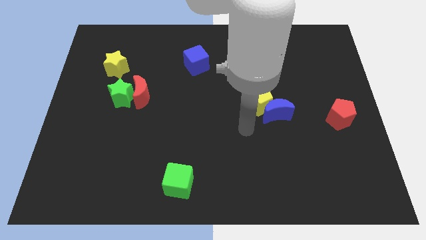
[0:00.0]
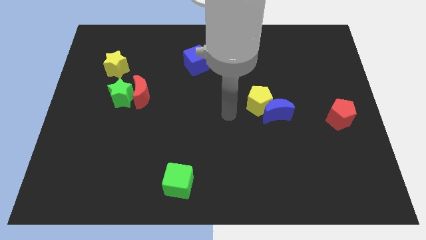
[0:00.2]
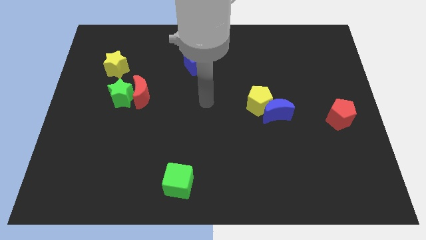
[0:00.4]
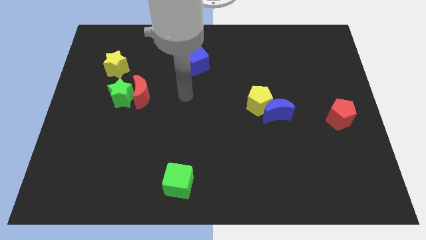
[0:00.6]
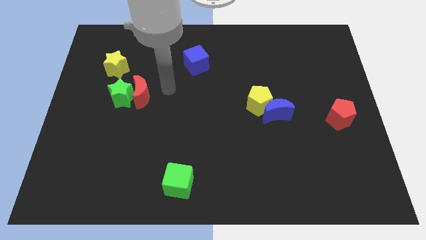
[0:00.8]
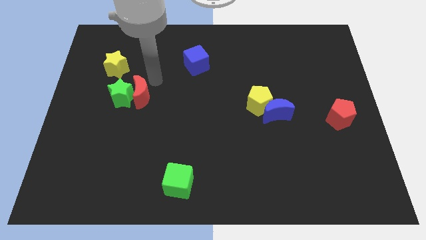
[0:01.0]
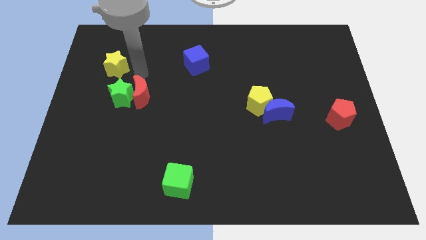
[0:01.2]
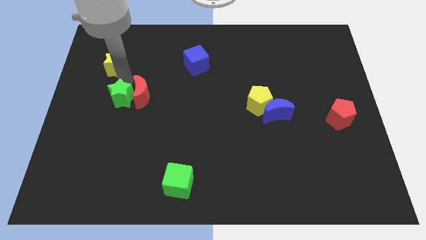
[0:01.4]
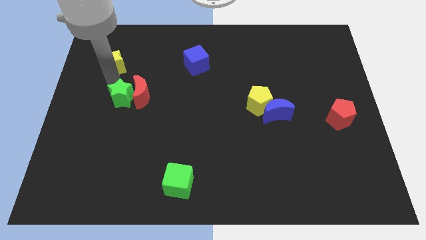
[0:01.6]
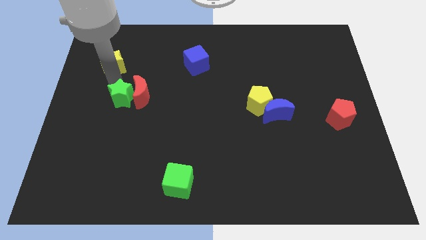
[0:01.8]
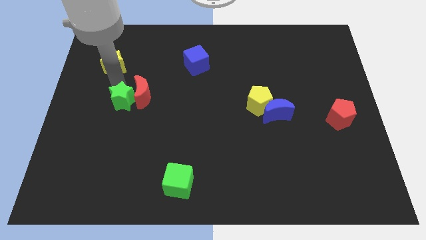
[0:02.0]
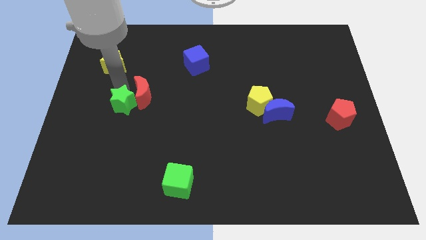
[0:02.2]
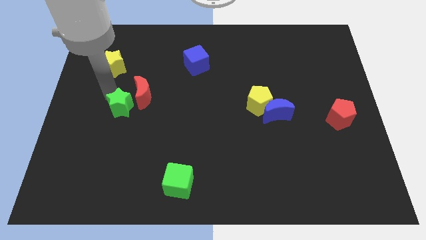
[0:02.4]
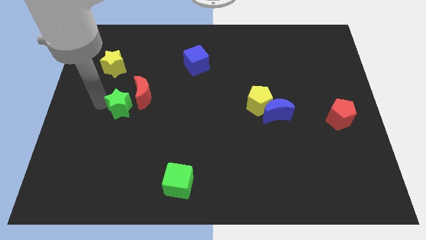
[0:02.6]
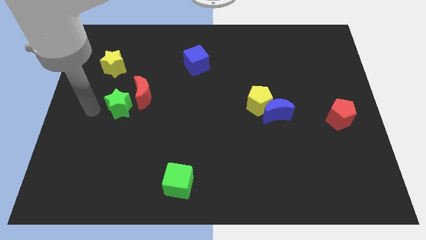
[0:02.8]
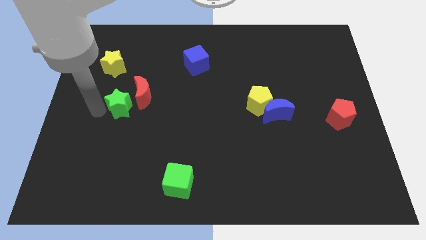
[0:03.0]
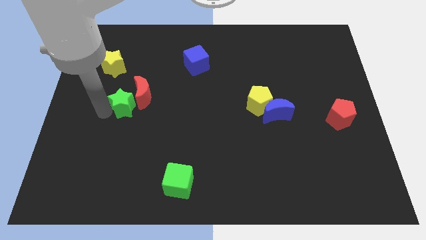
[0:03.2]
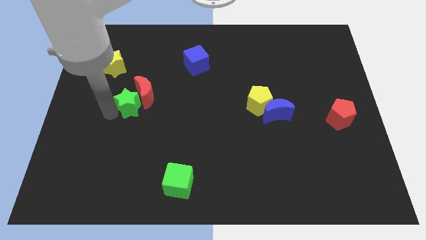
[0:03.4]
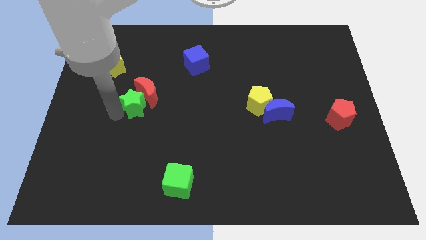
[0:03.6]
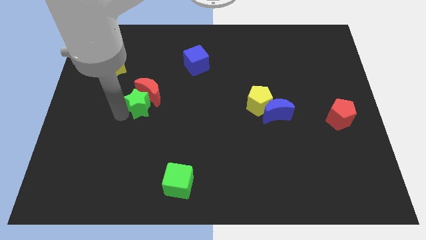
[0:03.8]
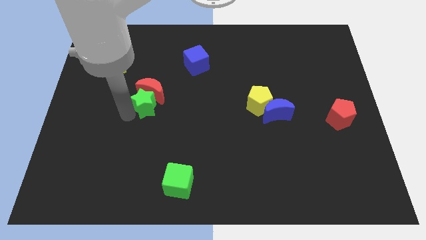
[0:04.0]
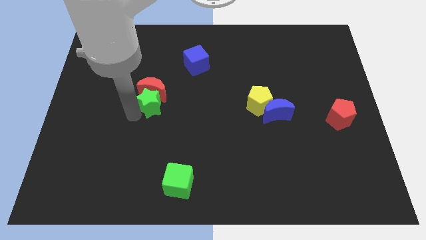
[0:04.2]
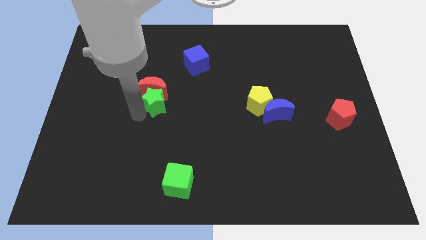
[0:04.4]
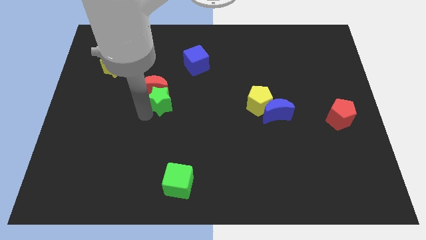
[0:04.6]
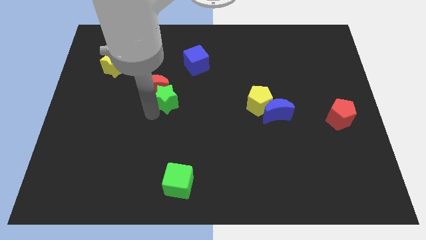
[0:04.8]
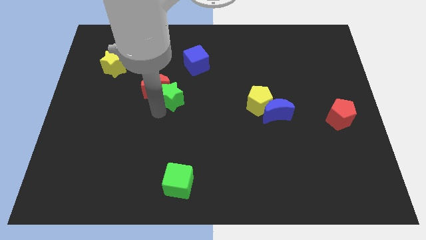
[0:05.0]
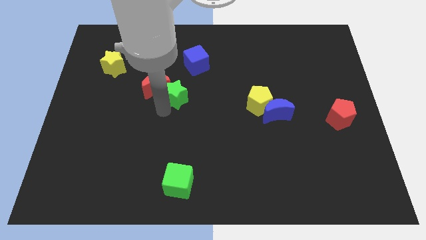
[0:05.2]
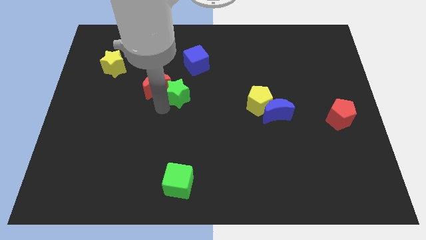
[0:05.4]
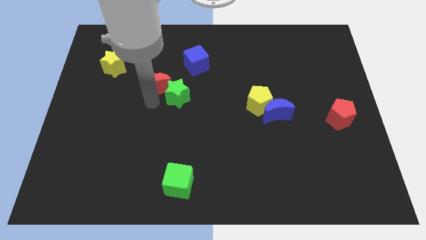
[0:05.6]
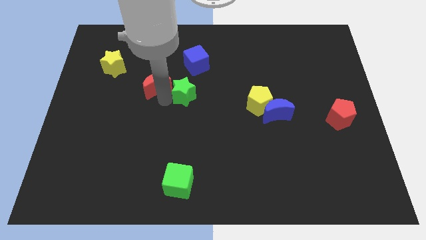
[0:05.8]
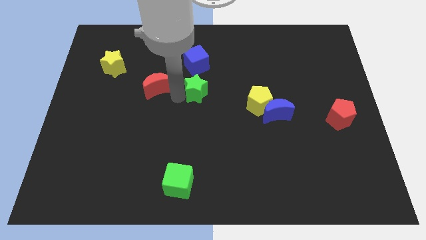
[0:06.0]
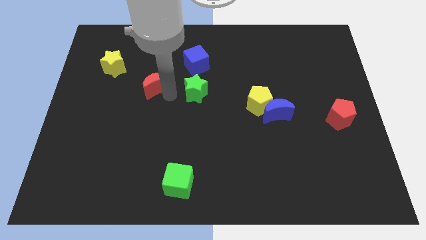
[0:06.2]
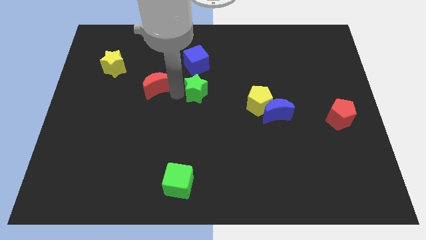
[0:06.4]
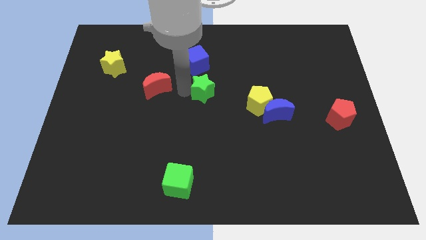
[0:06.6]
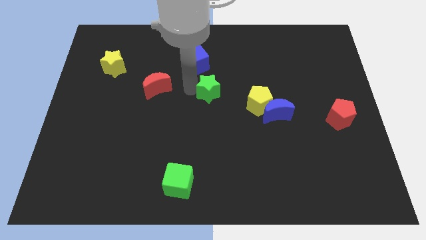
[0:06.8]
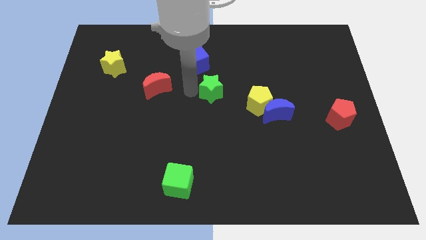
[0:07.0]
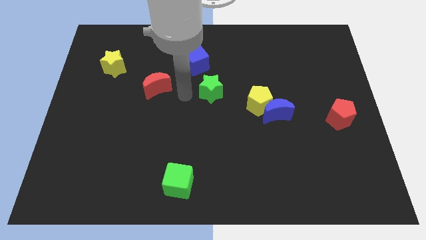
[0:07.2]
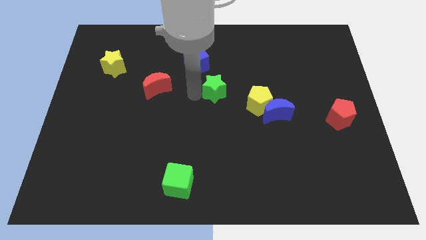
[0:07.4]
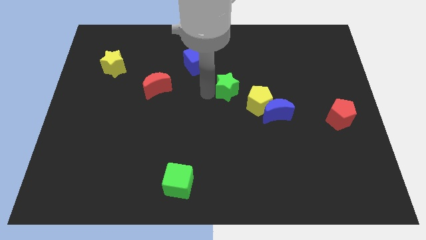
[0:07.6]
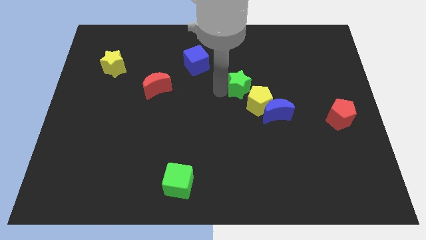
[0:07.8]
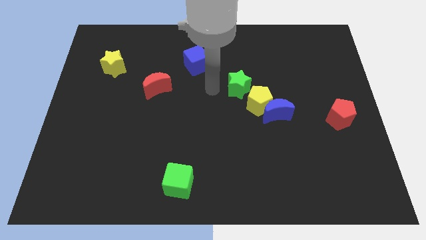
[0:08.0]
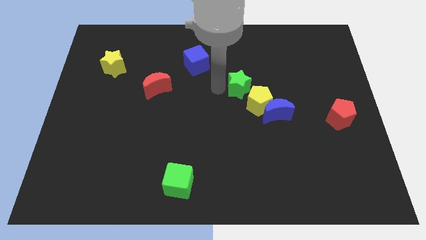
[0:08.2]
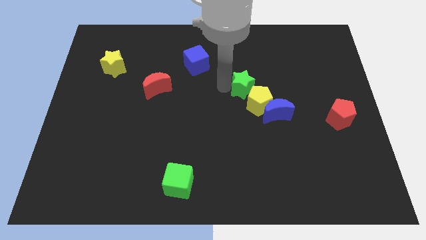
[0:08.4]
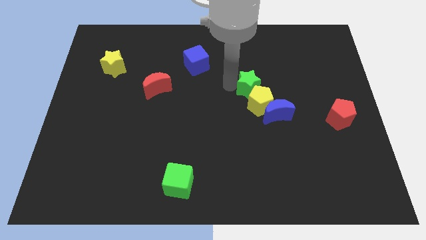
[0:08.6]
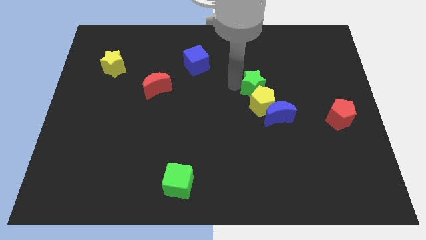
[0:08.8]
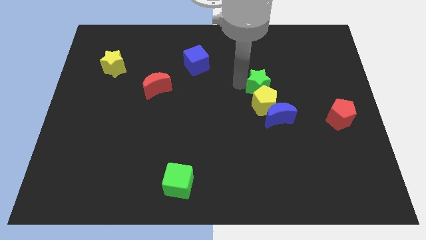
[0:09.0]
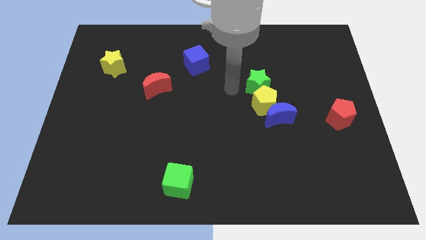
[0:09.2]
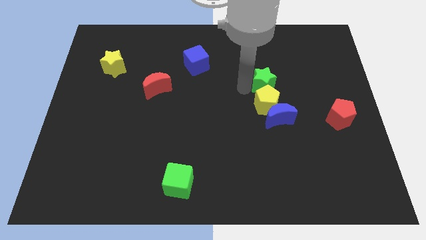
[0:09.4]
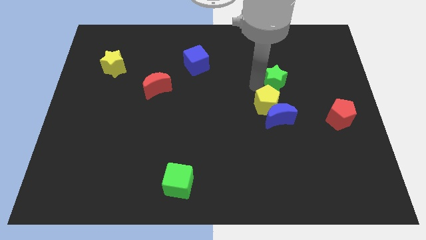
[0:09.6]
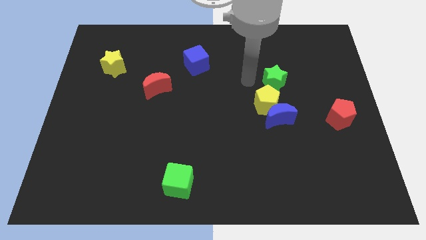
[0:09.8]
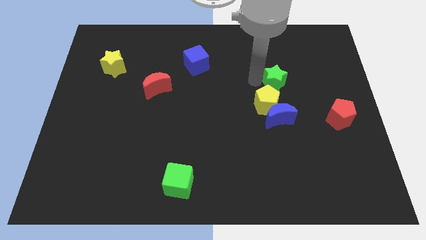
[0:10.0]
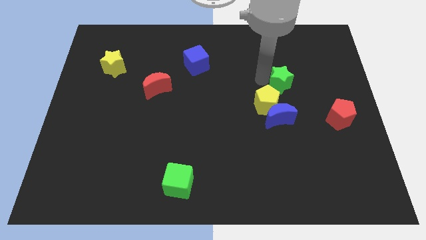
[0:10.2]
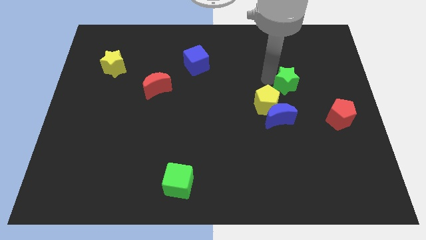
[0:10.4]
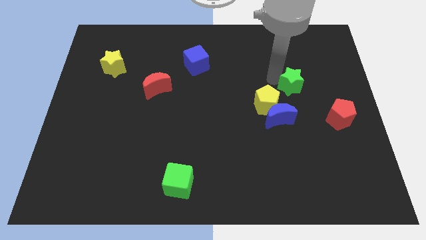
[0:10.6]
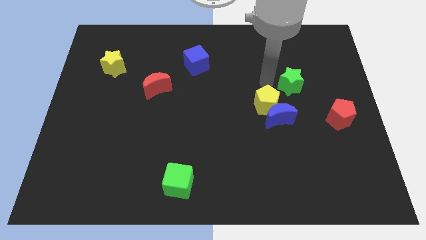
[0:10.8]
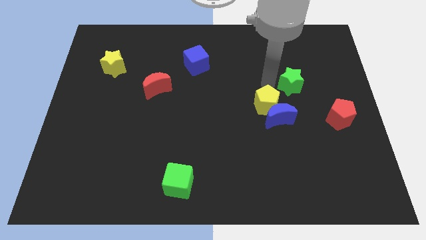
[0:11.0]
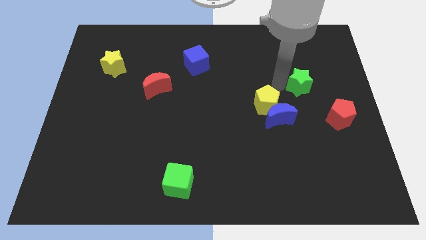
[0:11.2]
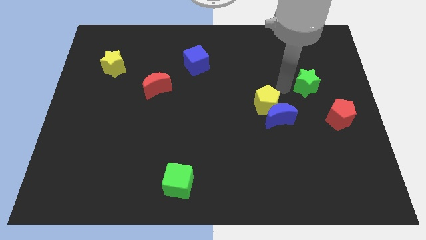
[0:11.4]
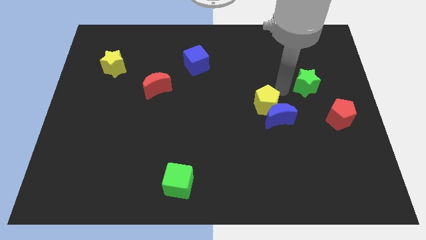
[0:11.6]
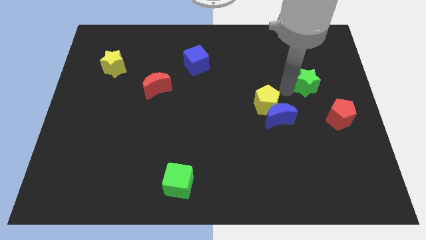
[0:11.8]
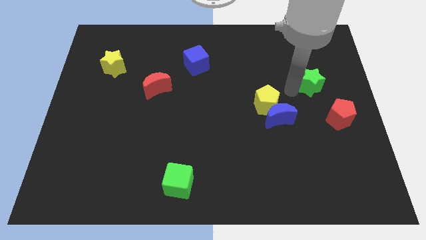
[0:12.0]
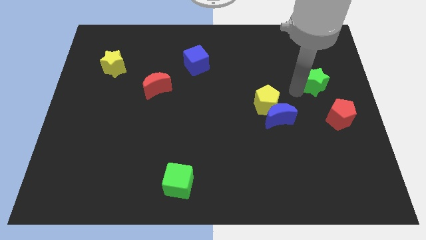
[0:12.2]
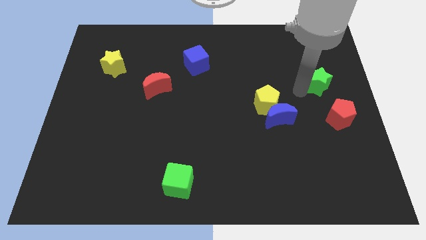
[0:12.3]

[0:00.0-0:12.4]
move the green star to the center right

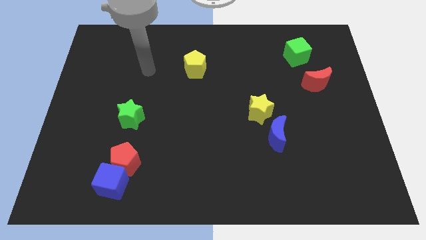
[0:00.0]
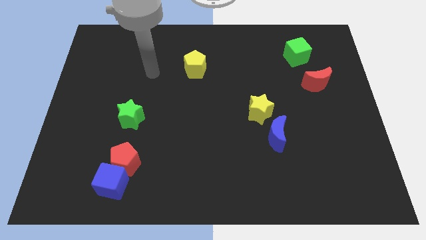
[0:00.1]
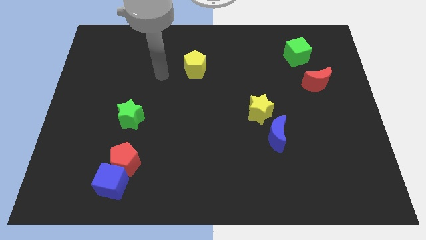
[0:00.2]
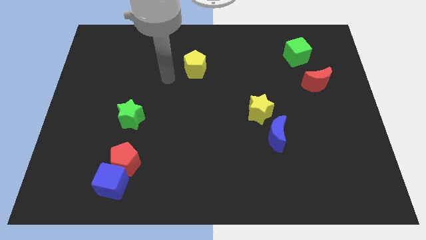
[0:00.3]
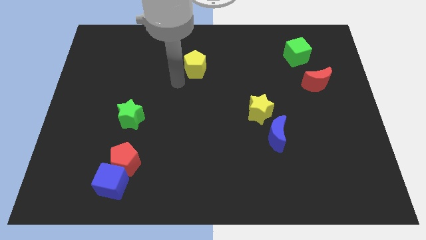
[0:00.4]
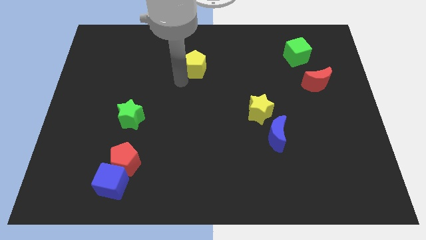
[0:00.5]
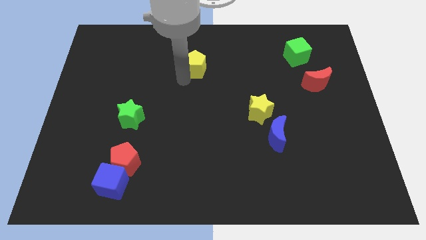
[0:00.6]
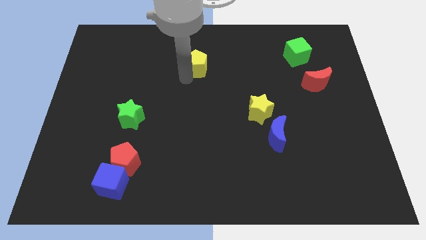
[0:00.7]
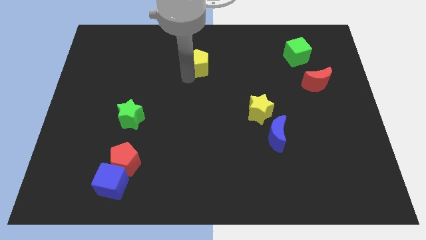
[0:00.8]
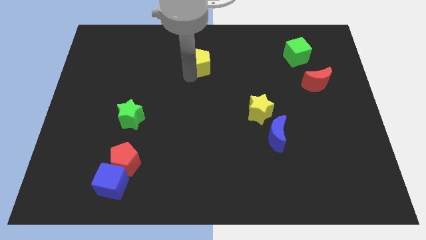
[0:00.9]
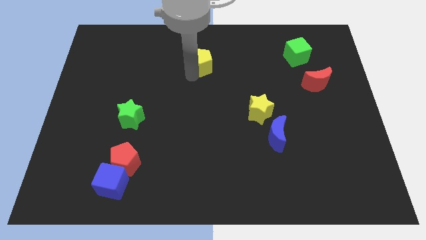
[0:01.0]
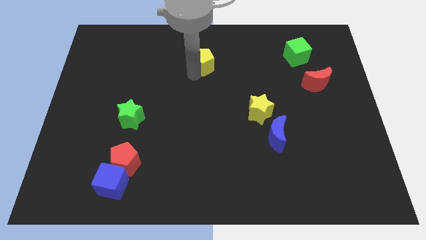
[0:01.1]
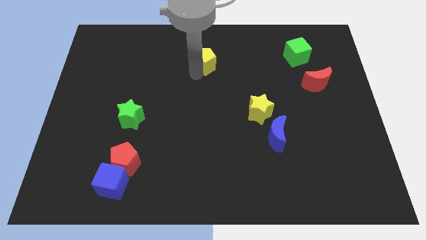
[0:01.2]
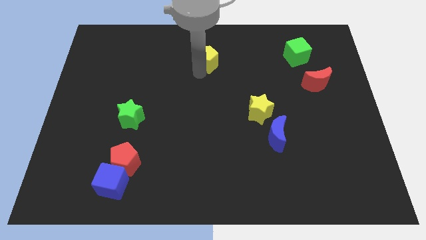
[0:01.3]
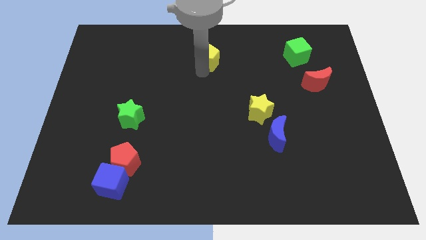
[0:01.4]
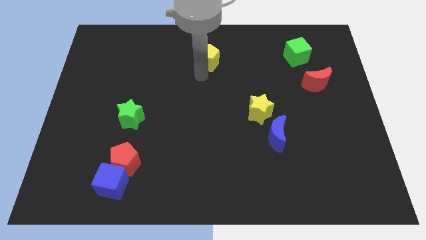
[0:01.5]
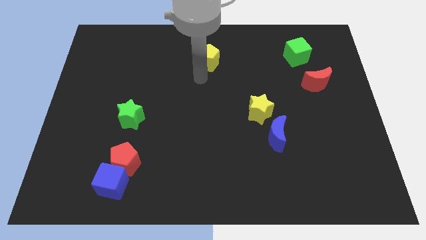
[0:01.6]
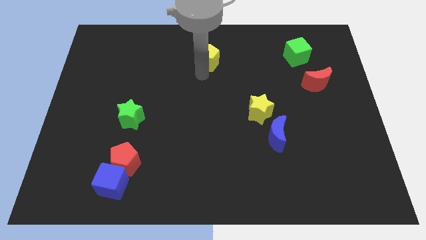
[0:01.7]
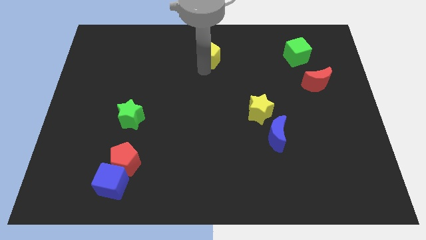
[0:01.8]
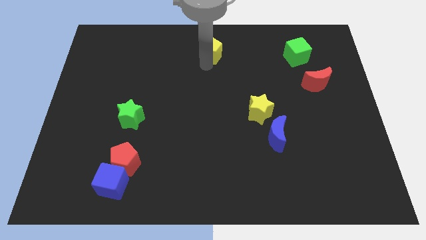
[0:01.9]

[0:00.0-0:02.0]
put the yellow pentagon to the towards your base
